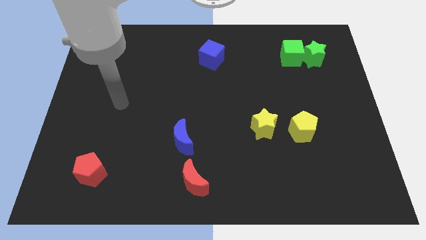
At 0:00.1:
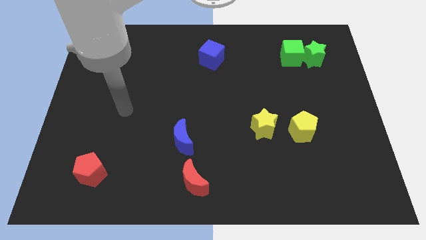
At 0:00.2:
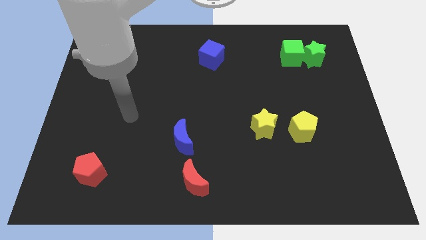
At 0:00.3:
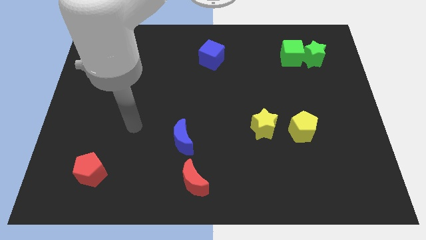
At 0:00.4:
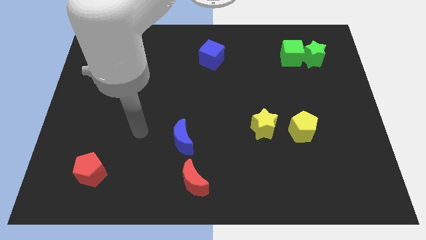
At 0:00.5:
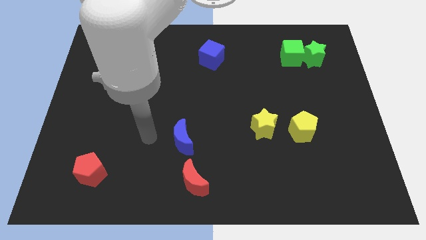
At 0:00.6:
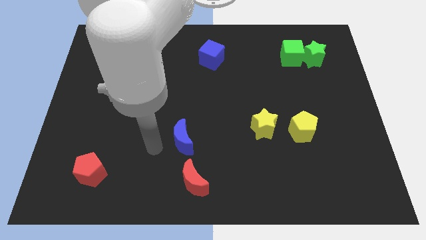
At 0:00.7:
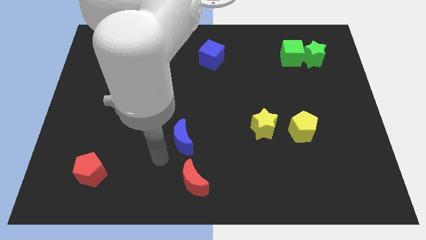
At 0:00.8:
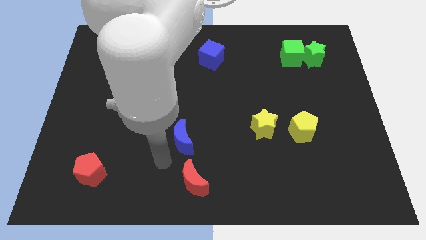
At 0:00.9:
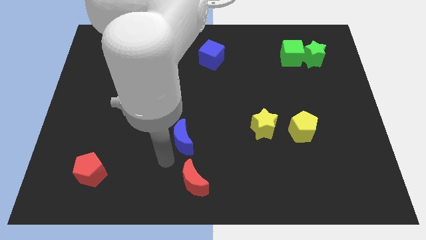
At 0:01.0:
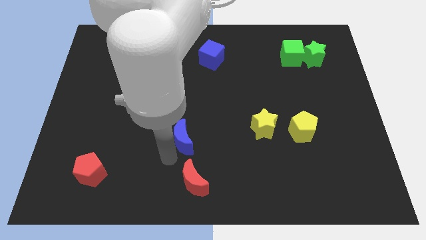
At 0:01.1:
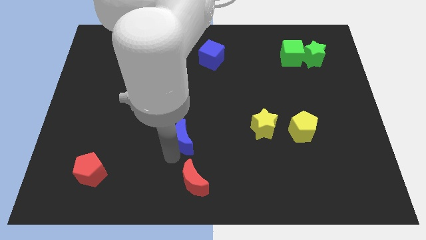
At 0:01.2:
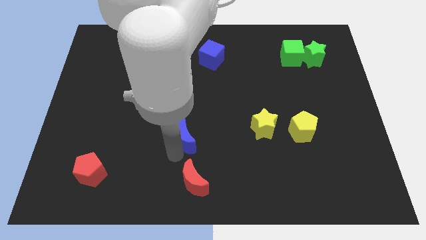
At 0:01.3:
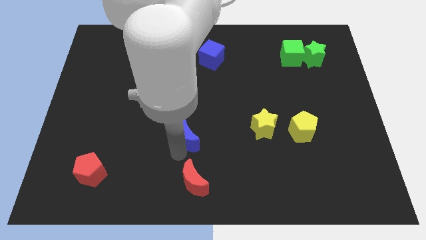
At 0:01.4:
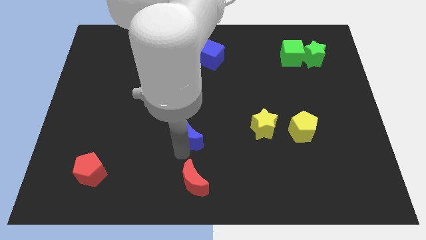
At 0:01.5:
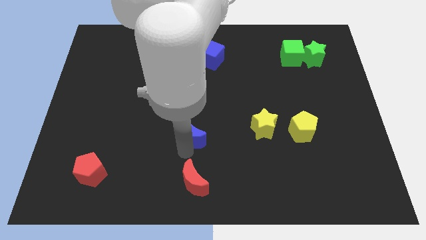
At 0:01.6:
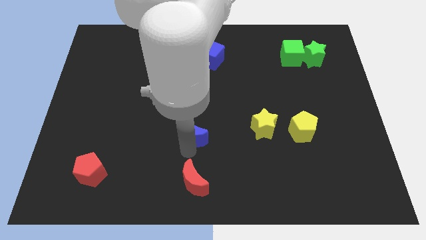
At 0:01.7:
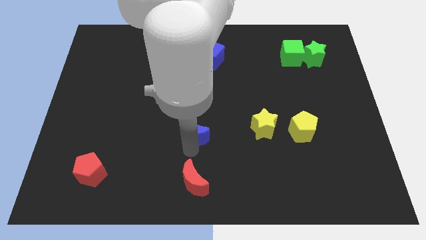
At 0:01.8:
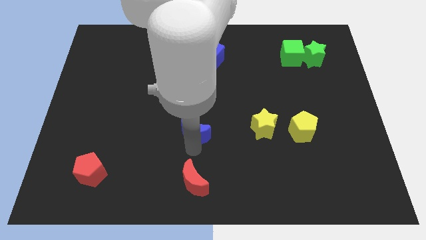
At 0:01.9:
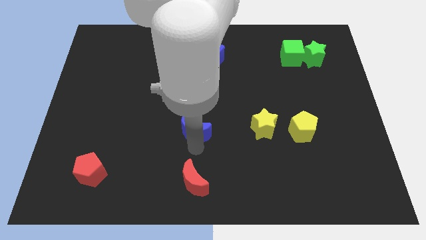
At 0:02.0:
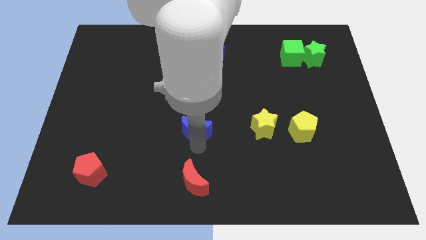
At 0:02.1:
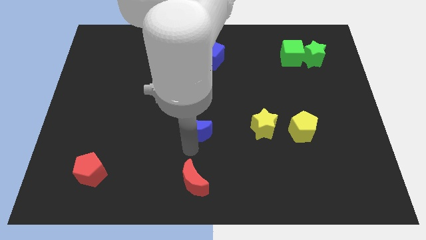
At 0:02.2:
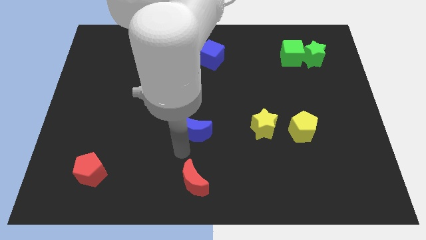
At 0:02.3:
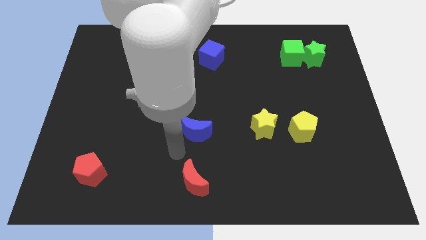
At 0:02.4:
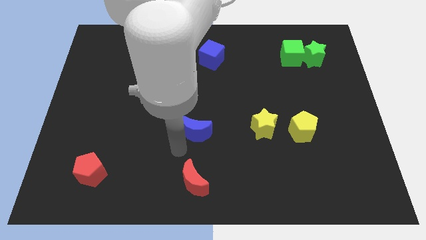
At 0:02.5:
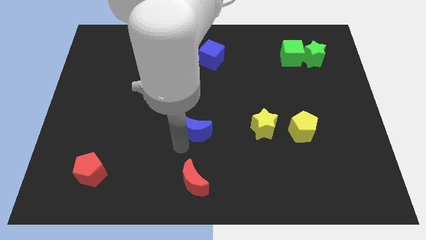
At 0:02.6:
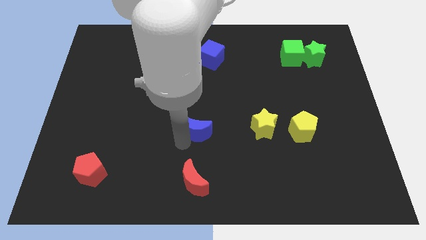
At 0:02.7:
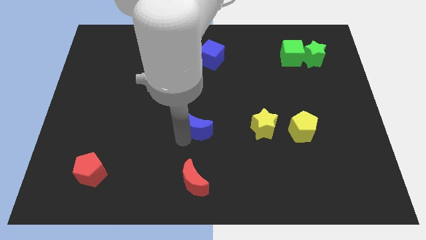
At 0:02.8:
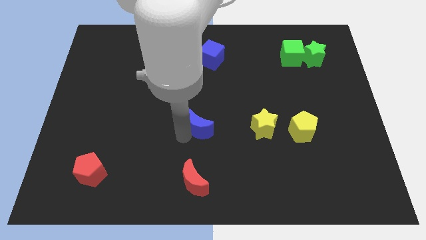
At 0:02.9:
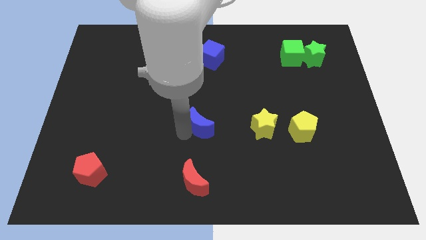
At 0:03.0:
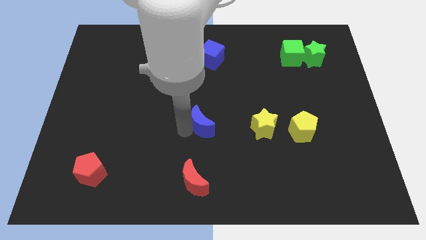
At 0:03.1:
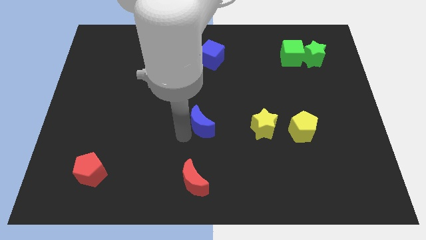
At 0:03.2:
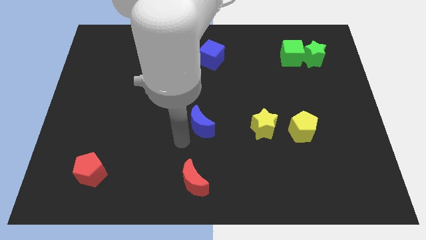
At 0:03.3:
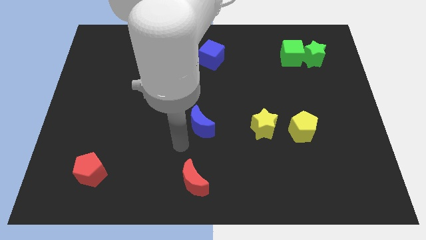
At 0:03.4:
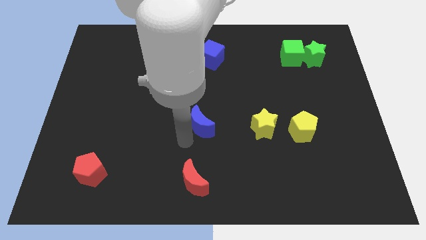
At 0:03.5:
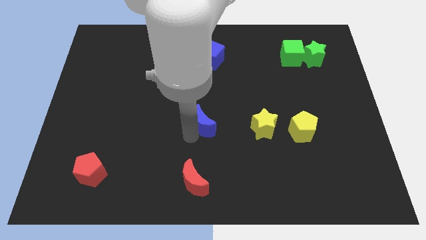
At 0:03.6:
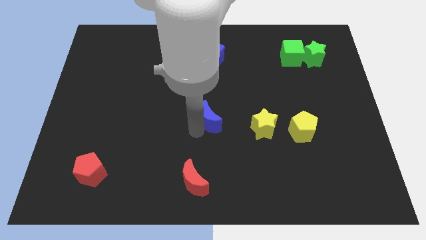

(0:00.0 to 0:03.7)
slightly push the blue moon up and to the right

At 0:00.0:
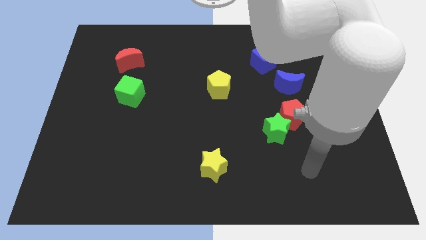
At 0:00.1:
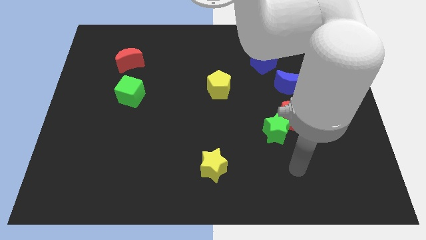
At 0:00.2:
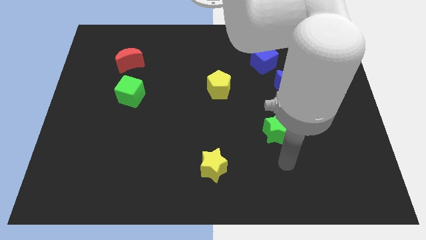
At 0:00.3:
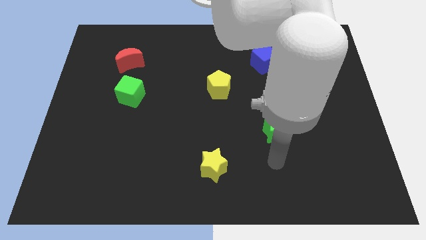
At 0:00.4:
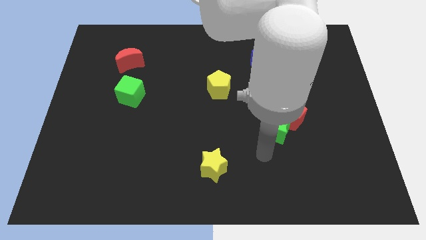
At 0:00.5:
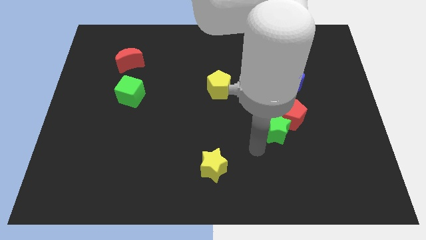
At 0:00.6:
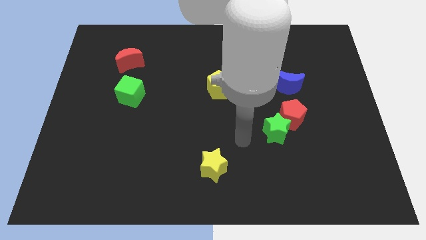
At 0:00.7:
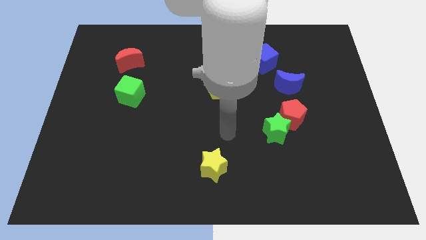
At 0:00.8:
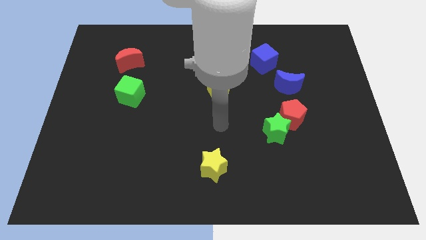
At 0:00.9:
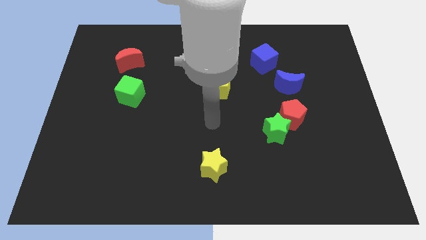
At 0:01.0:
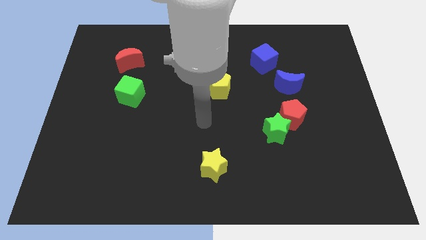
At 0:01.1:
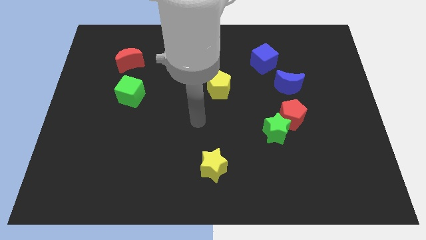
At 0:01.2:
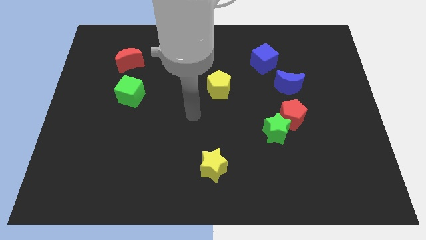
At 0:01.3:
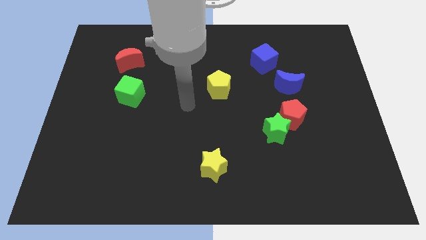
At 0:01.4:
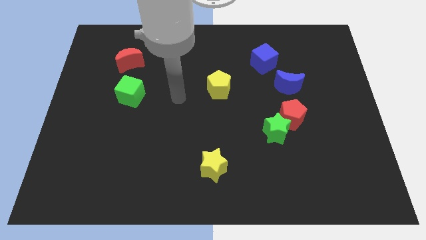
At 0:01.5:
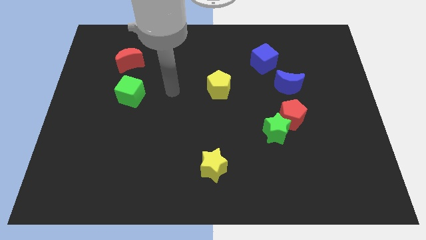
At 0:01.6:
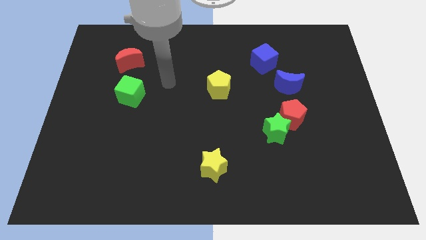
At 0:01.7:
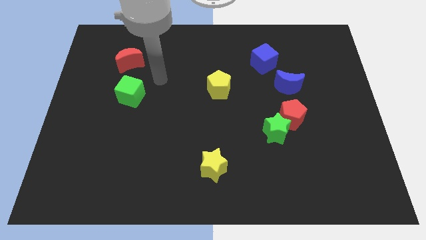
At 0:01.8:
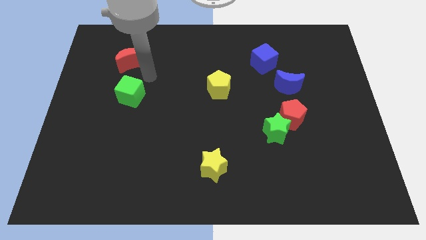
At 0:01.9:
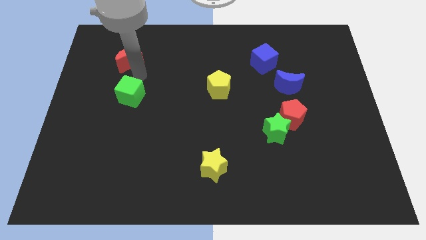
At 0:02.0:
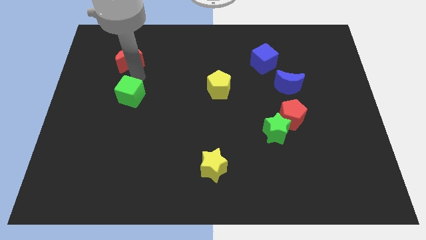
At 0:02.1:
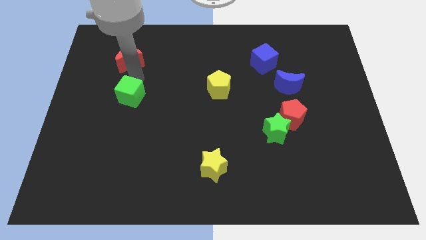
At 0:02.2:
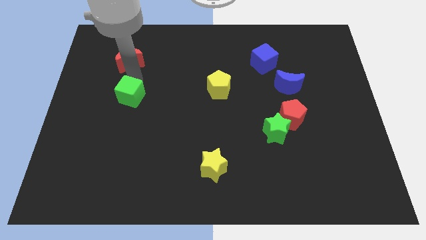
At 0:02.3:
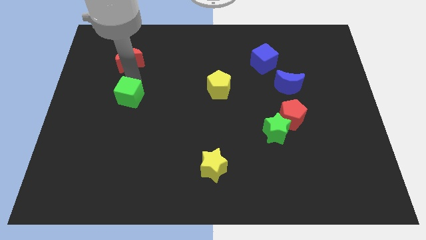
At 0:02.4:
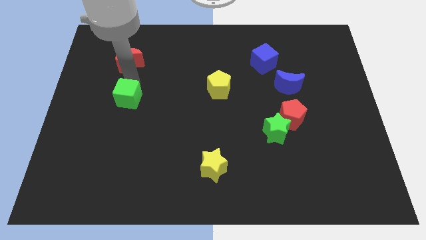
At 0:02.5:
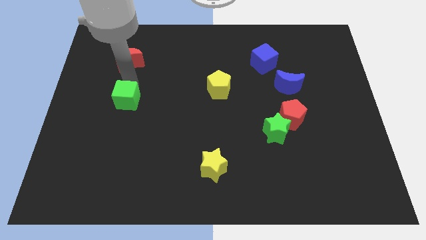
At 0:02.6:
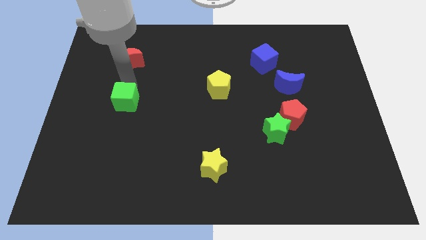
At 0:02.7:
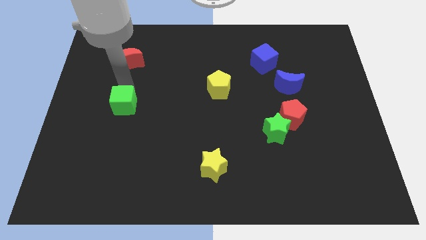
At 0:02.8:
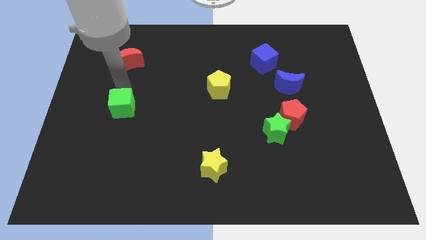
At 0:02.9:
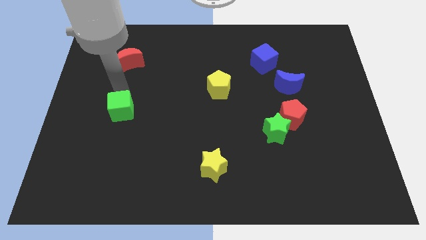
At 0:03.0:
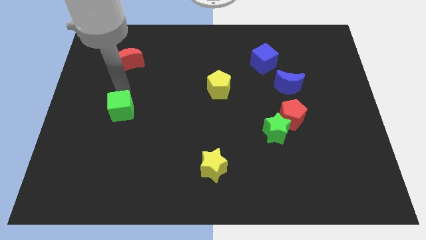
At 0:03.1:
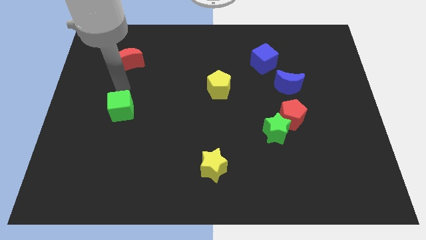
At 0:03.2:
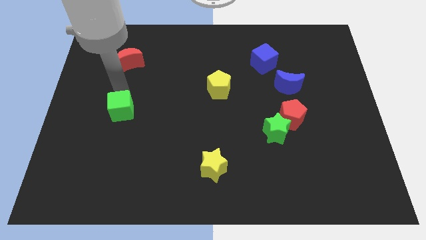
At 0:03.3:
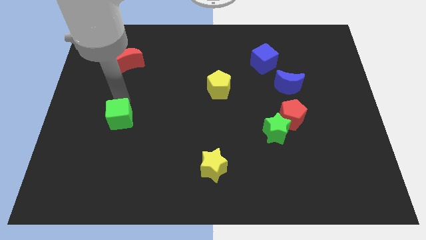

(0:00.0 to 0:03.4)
slide the green cube a little down

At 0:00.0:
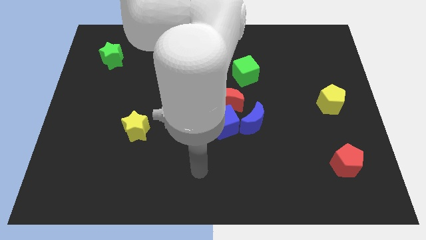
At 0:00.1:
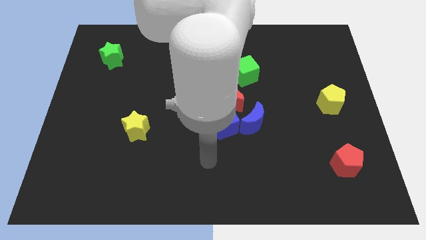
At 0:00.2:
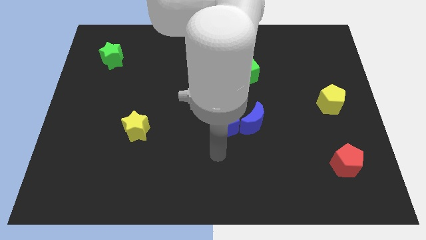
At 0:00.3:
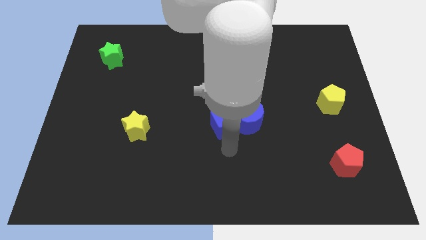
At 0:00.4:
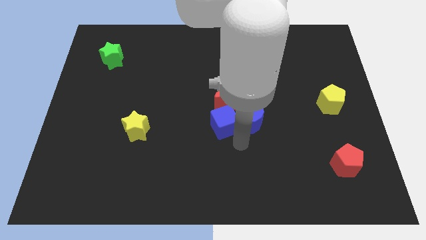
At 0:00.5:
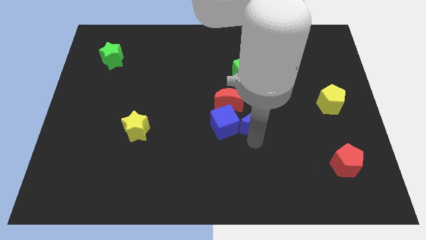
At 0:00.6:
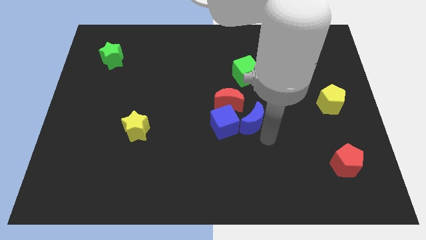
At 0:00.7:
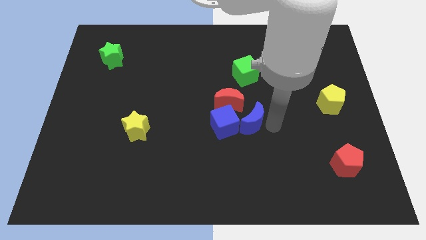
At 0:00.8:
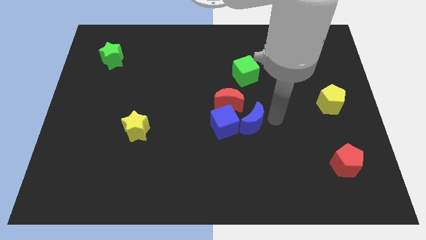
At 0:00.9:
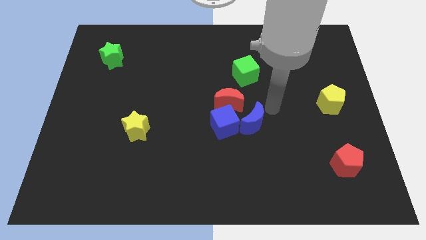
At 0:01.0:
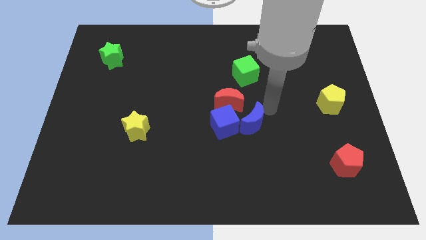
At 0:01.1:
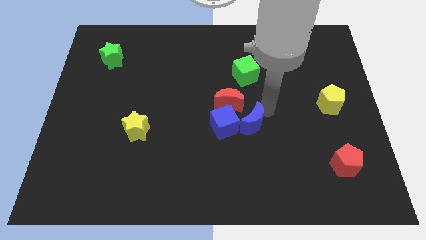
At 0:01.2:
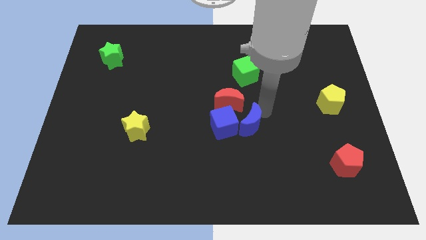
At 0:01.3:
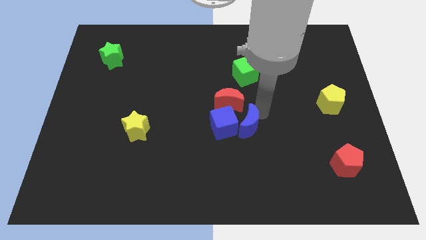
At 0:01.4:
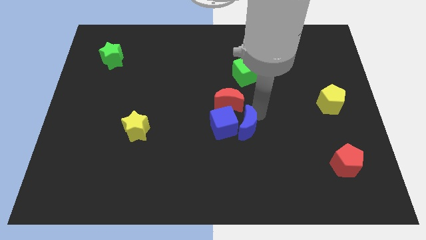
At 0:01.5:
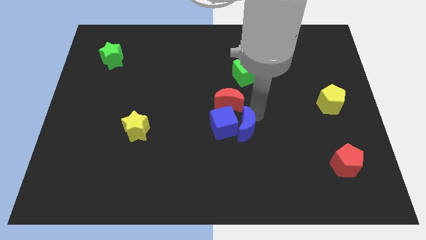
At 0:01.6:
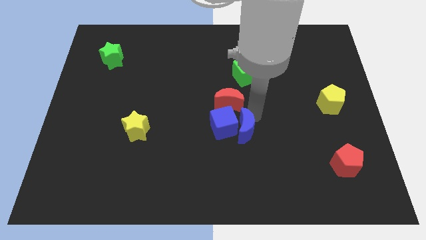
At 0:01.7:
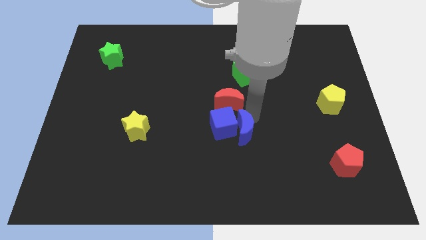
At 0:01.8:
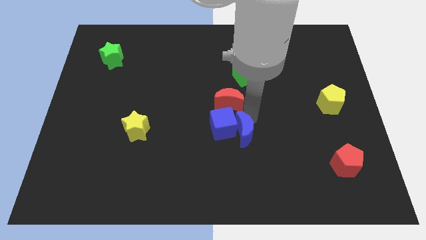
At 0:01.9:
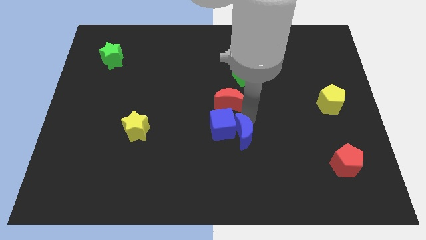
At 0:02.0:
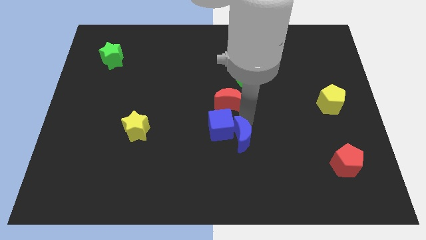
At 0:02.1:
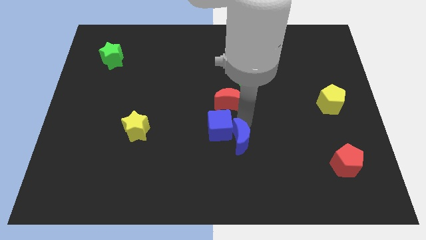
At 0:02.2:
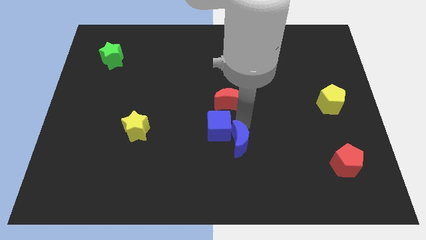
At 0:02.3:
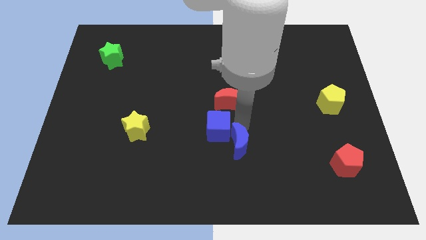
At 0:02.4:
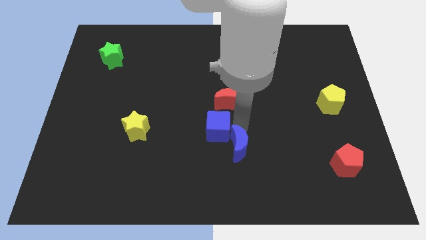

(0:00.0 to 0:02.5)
slightly move the blue moon downwards and to the left
